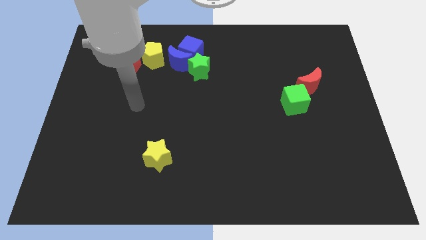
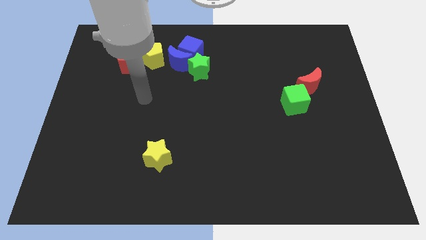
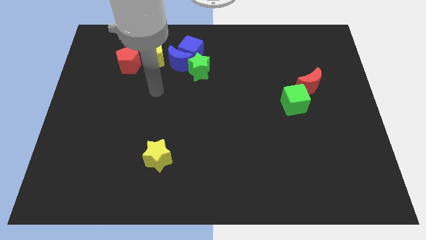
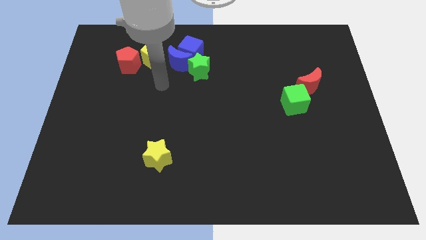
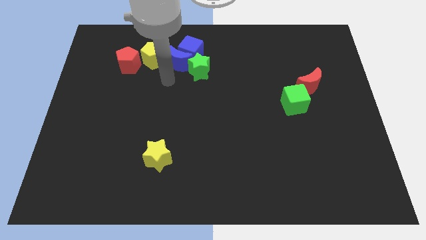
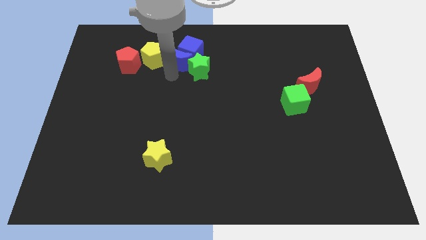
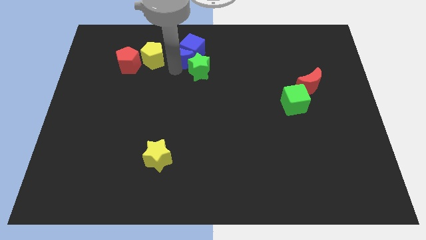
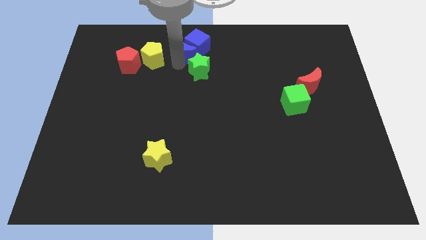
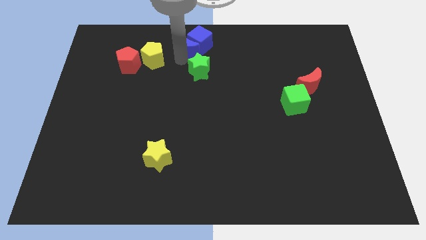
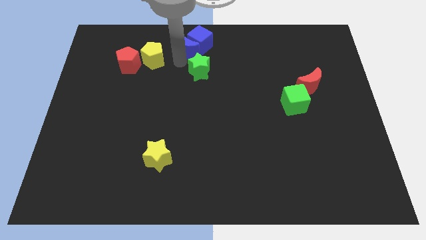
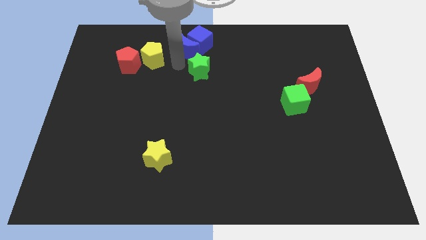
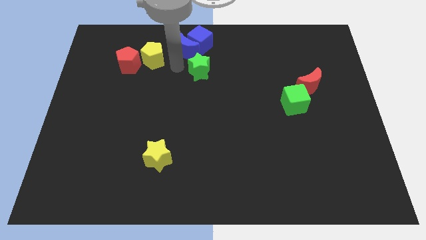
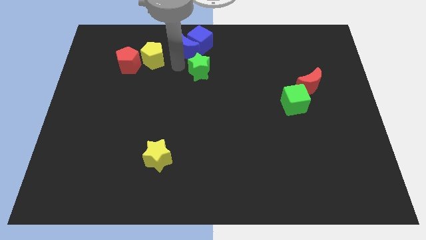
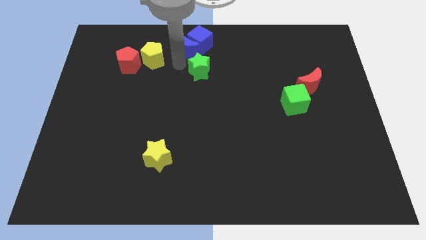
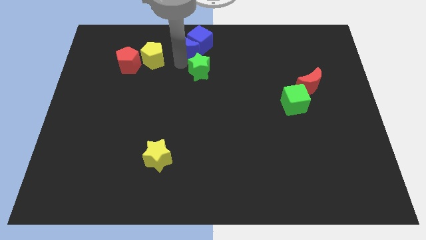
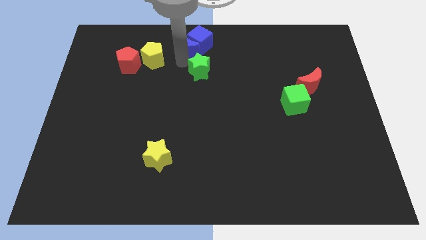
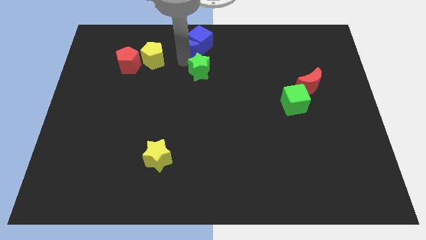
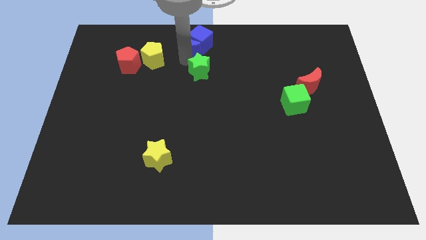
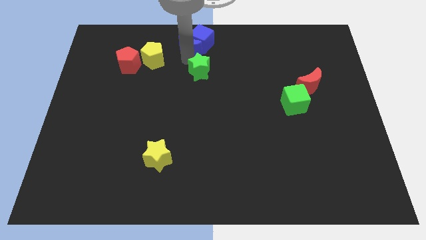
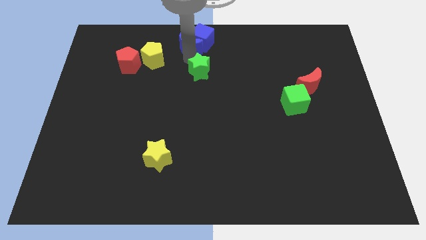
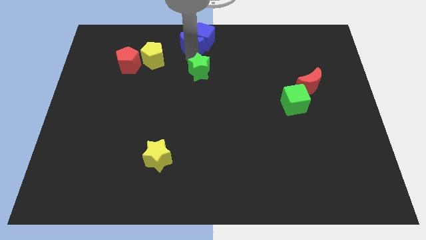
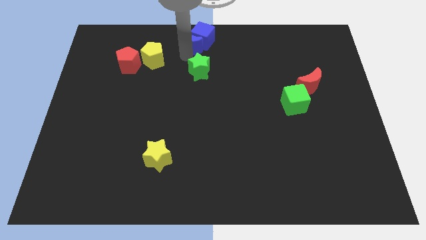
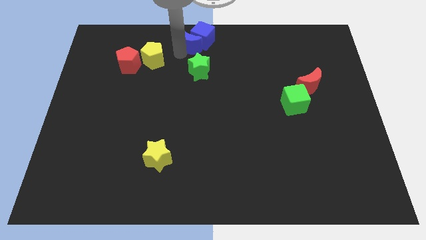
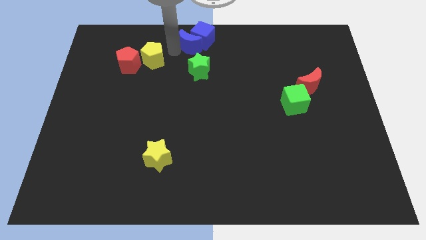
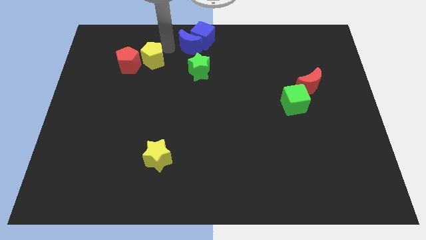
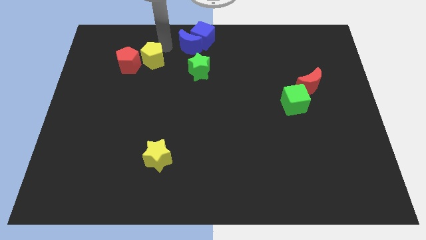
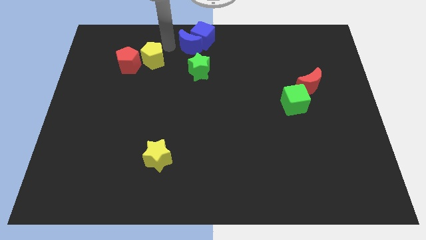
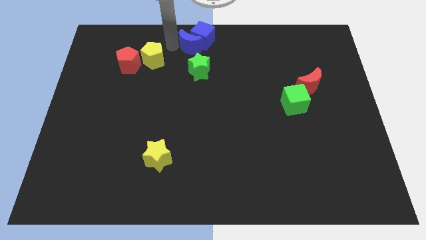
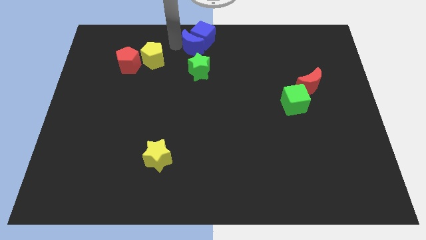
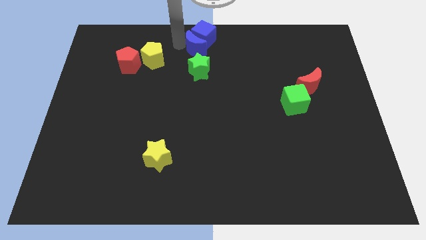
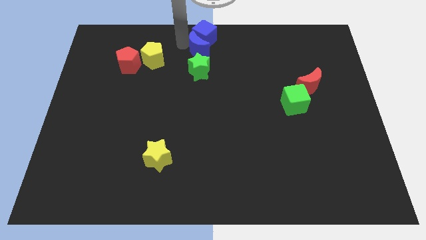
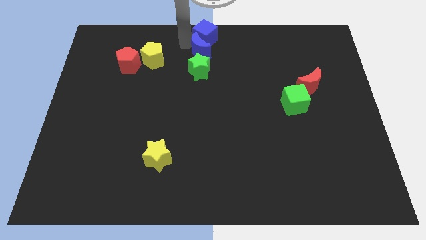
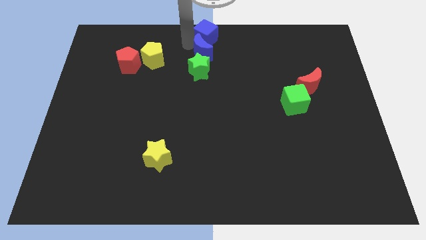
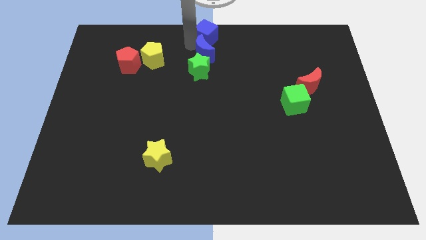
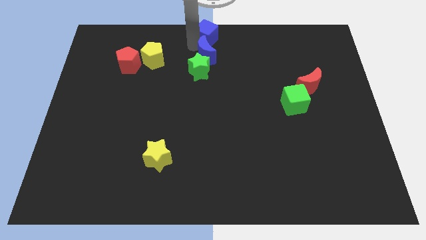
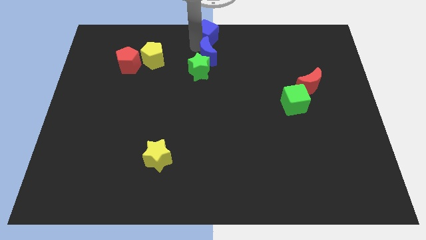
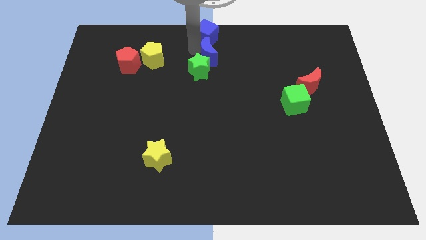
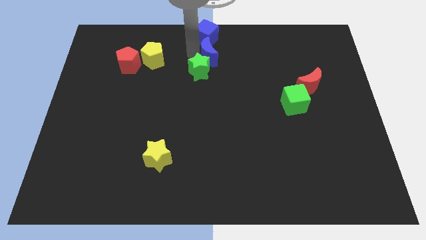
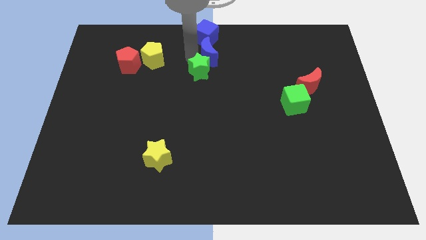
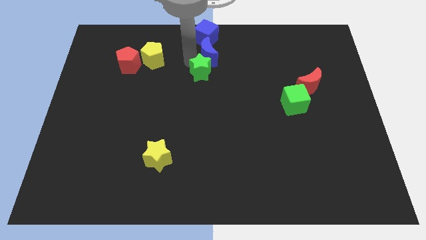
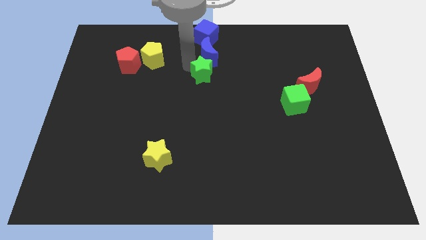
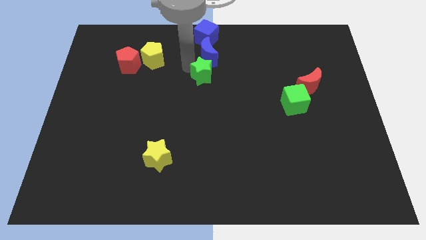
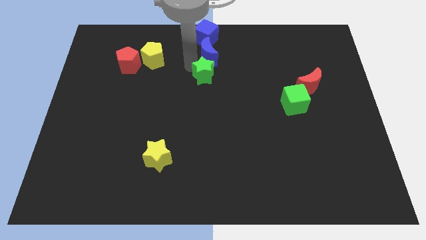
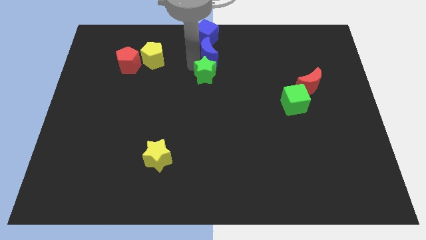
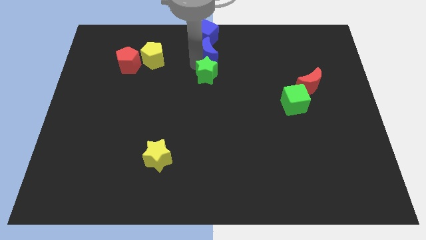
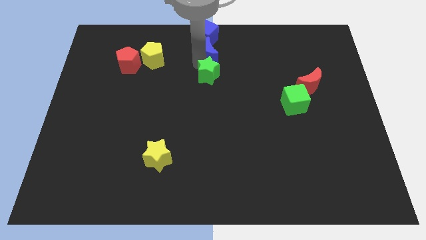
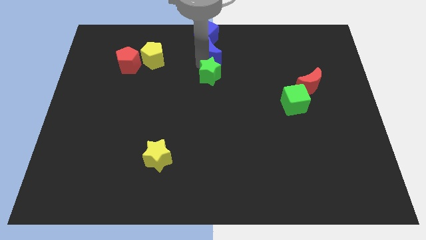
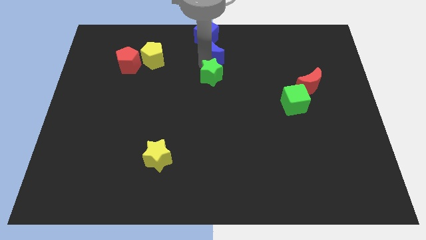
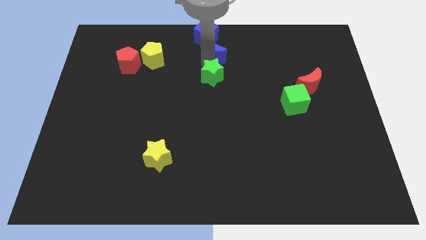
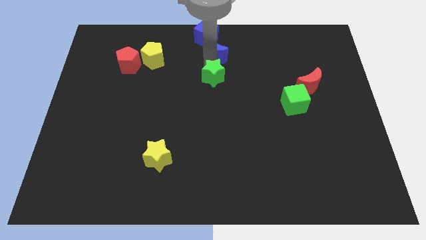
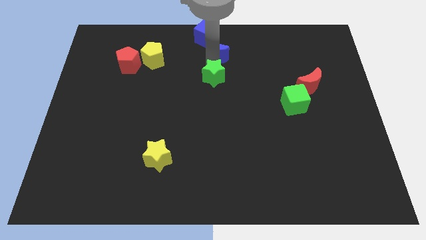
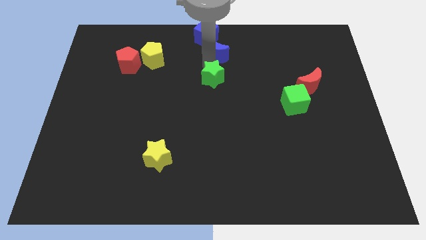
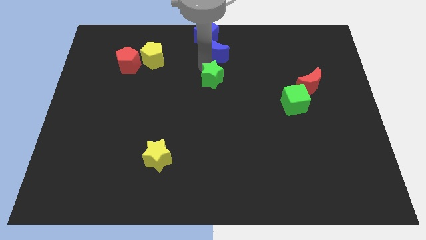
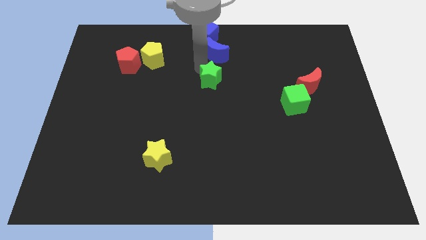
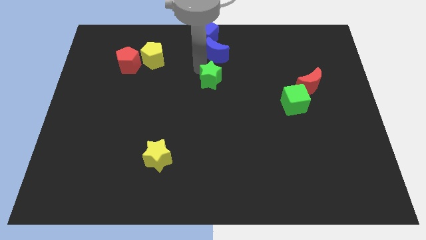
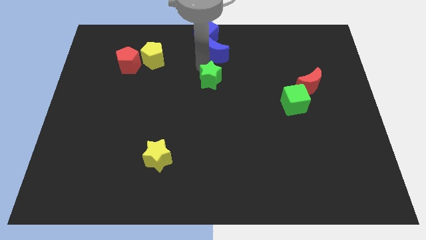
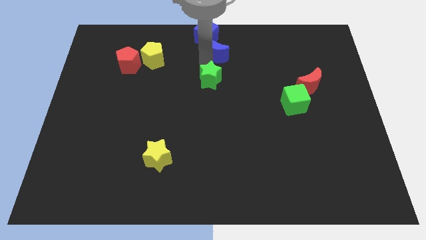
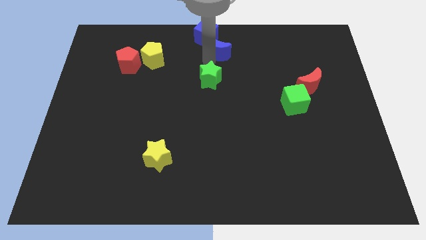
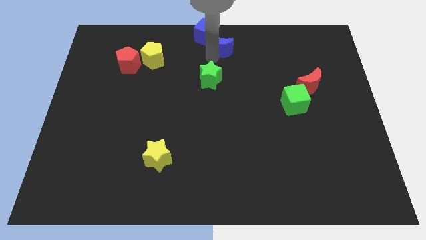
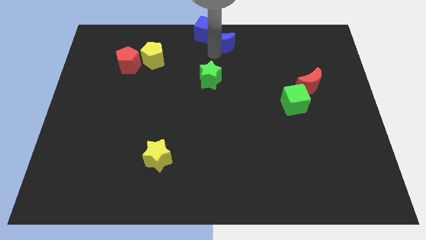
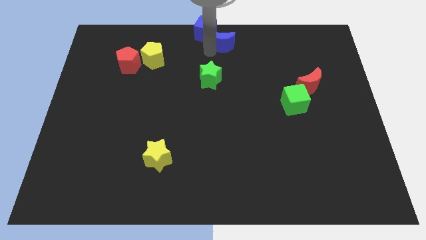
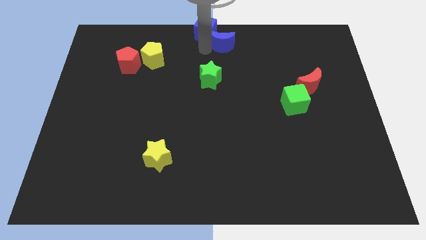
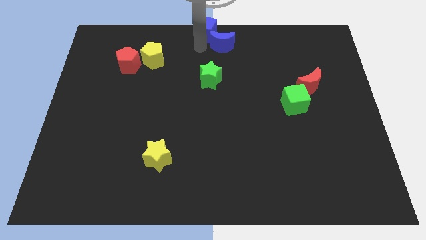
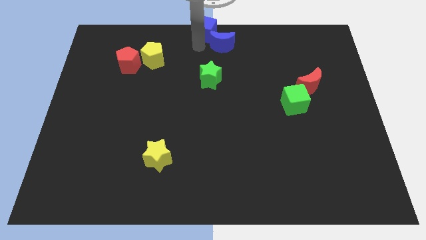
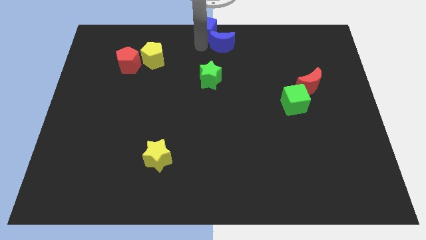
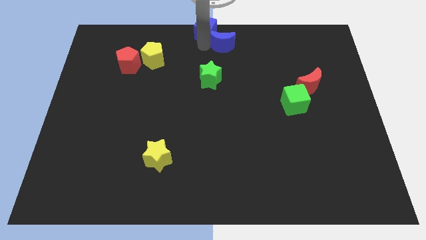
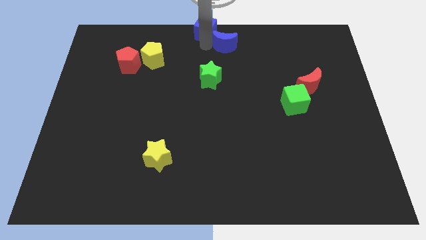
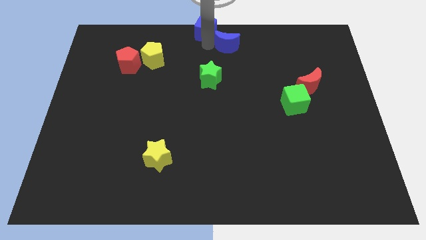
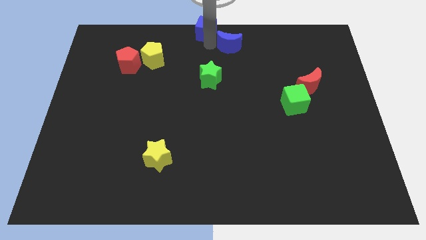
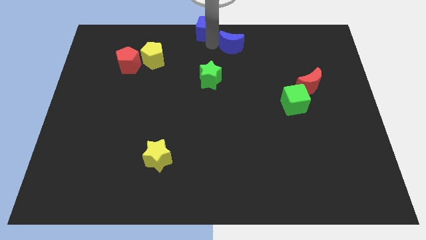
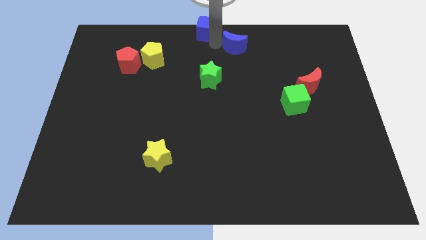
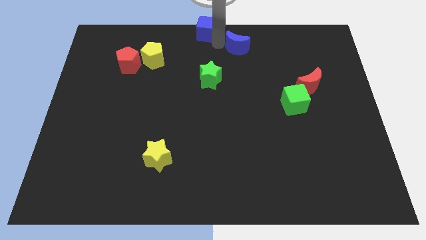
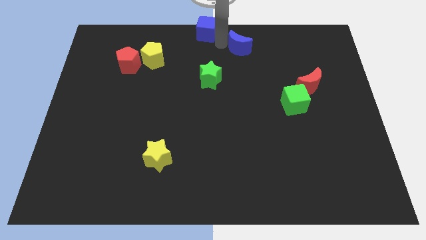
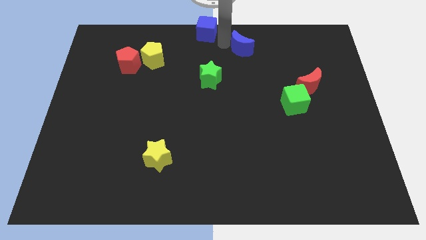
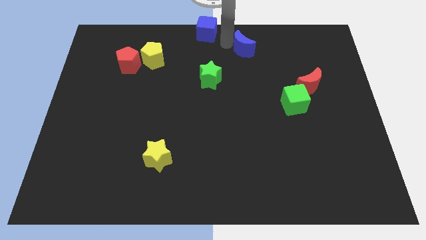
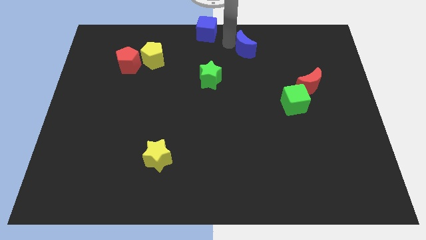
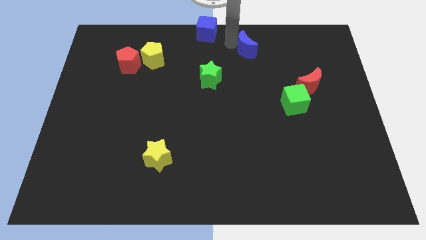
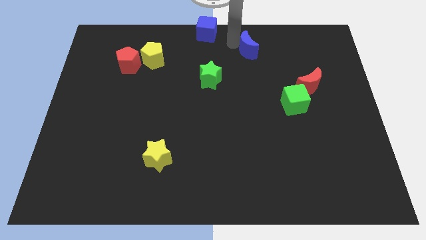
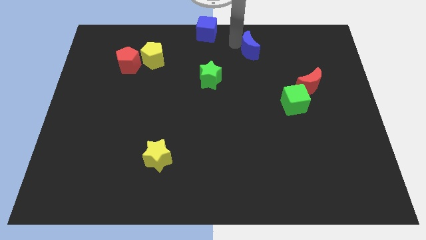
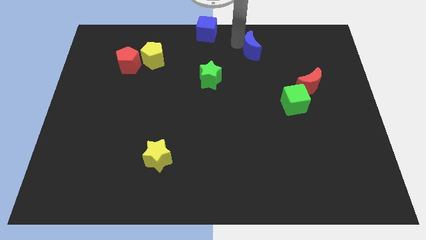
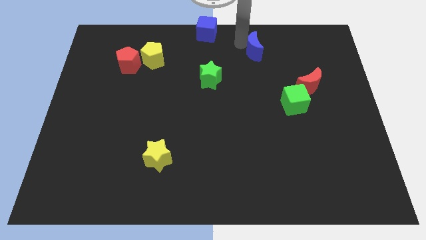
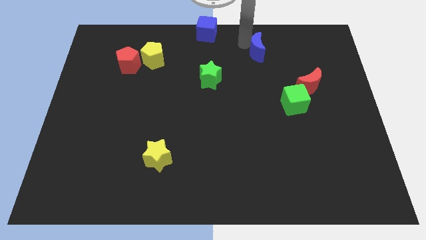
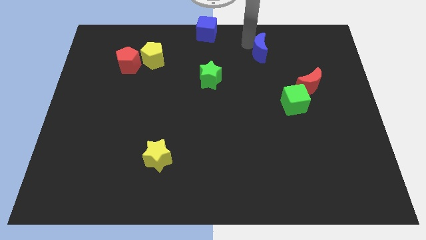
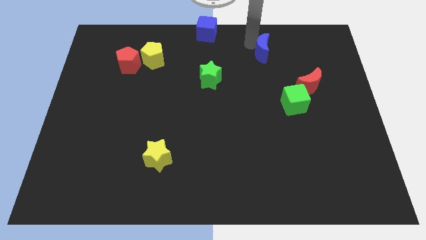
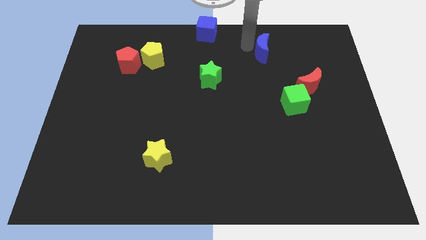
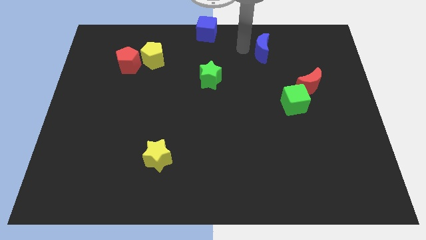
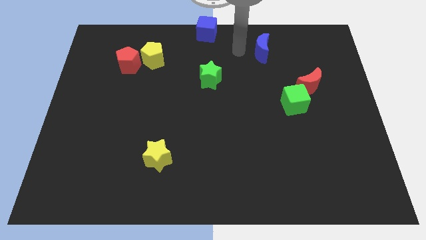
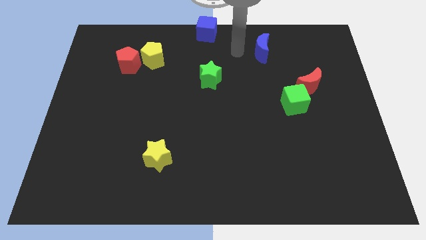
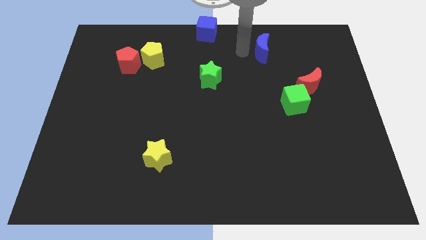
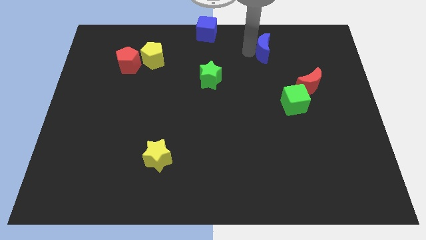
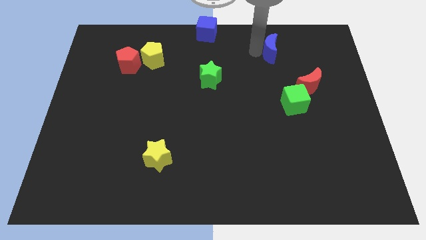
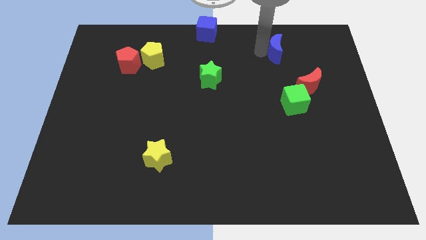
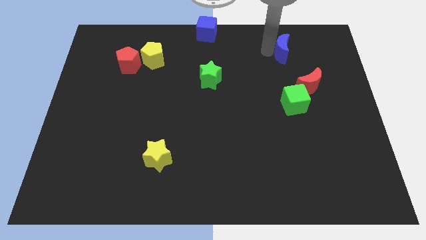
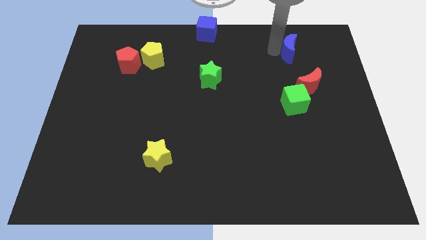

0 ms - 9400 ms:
push the blue moon to the top of the red moon
